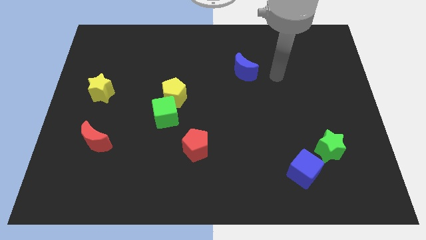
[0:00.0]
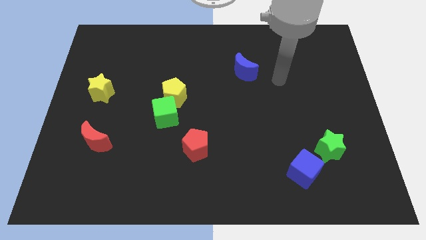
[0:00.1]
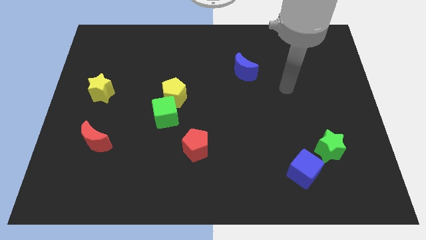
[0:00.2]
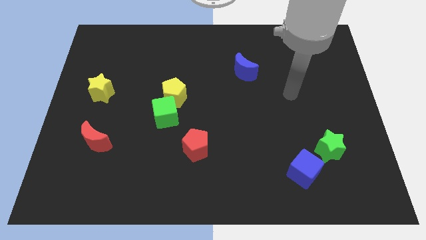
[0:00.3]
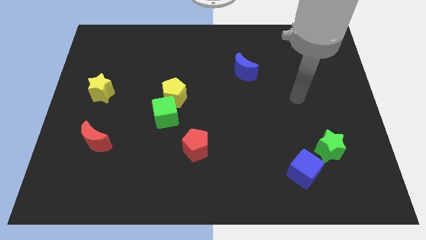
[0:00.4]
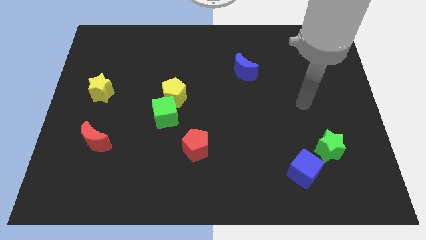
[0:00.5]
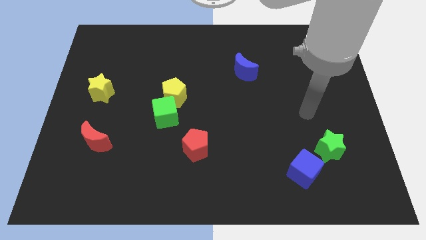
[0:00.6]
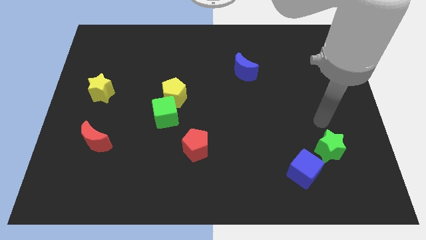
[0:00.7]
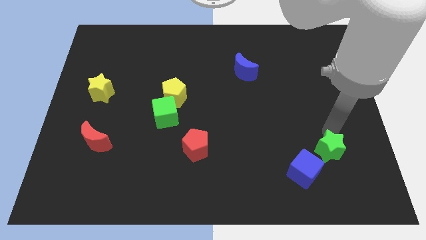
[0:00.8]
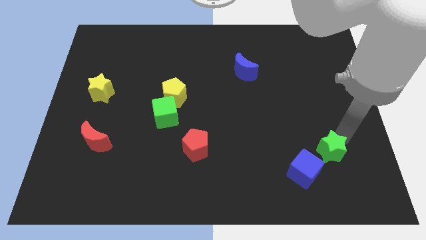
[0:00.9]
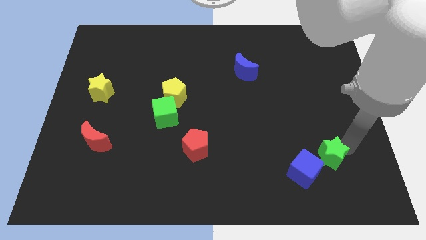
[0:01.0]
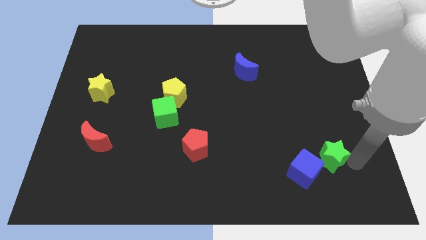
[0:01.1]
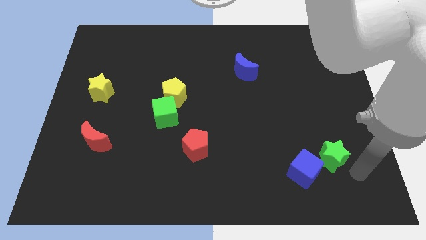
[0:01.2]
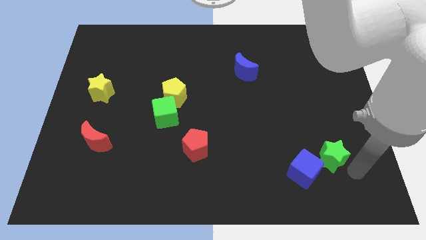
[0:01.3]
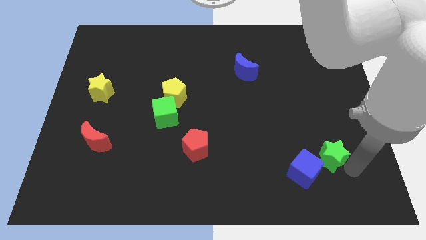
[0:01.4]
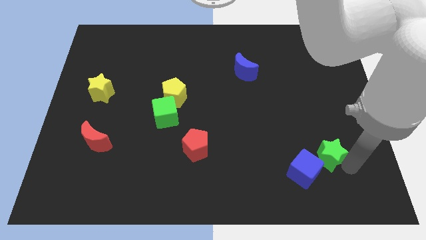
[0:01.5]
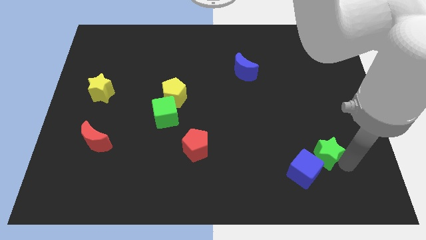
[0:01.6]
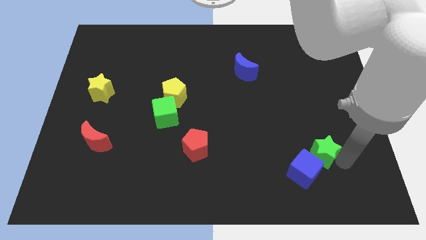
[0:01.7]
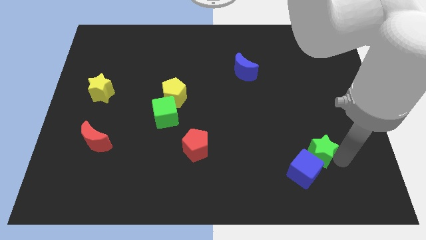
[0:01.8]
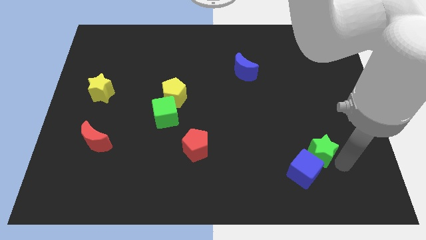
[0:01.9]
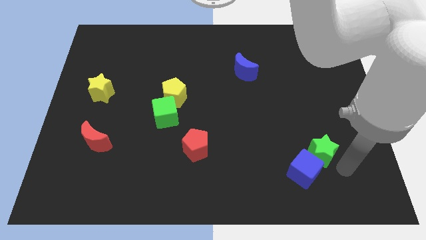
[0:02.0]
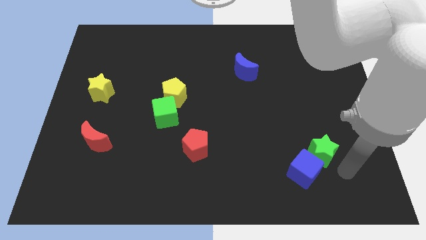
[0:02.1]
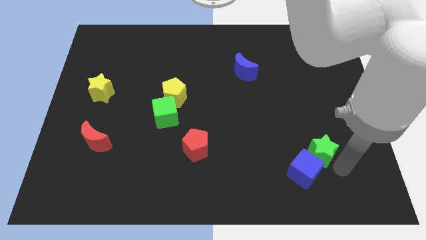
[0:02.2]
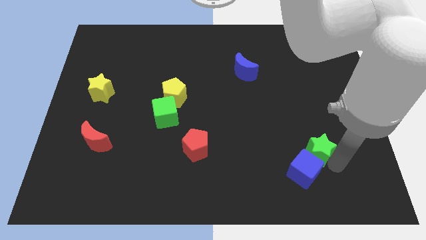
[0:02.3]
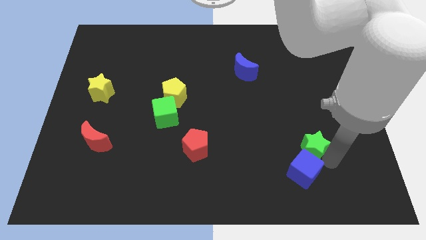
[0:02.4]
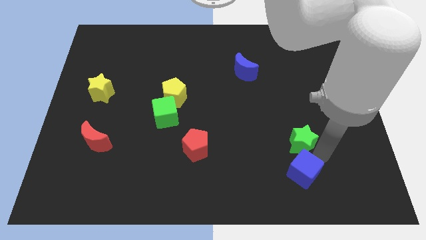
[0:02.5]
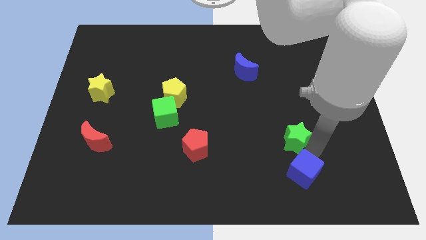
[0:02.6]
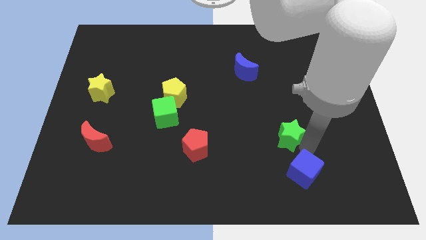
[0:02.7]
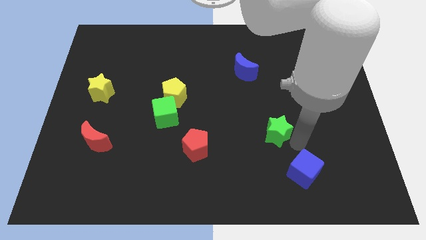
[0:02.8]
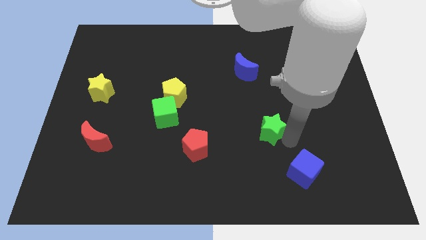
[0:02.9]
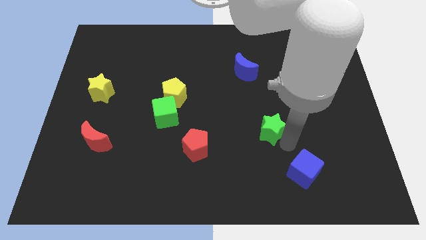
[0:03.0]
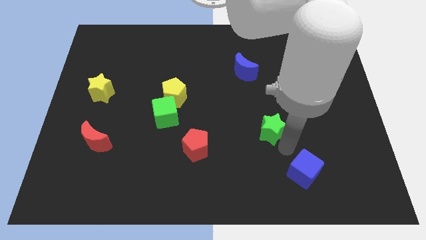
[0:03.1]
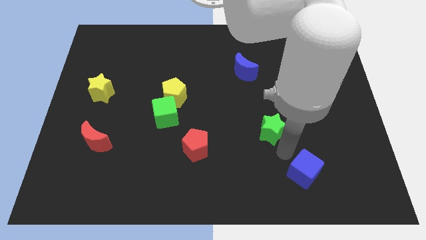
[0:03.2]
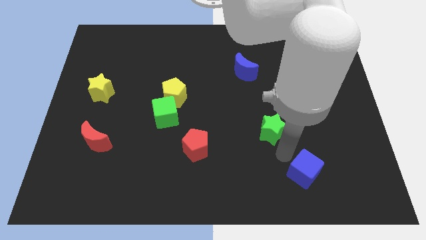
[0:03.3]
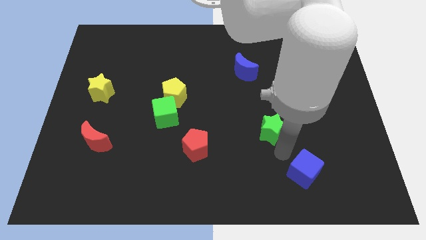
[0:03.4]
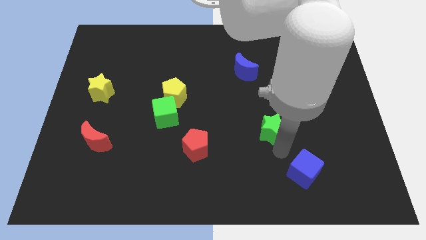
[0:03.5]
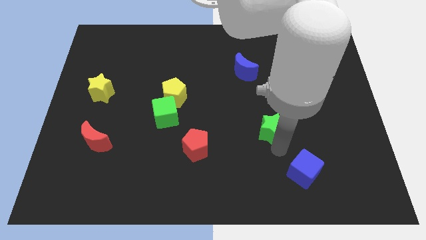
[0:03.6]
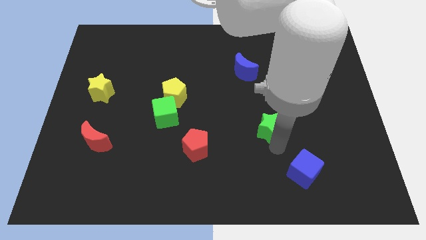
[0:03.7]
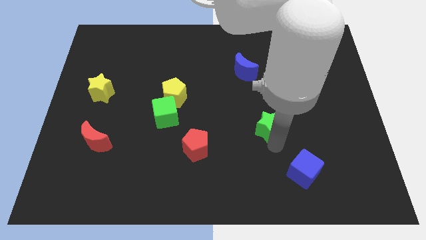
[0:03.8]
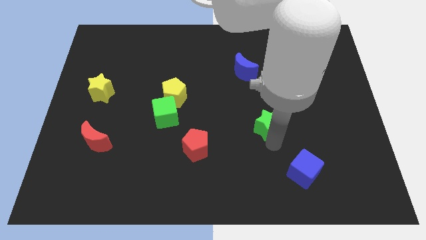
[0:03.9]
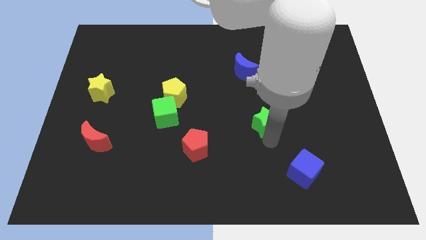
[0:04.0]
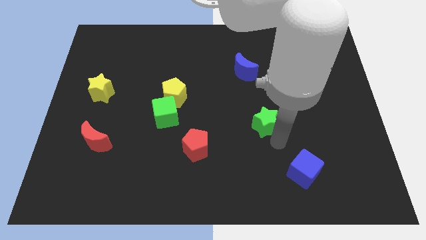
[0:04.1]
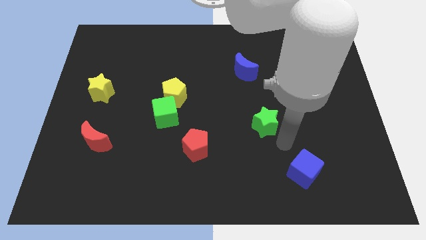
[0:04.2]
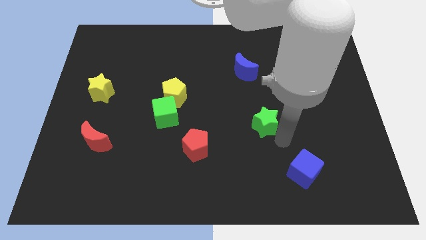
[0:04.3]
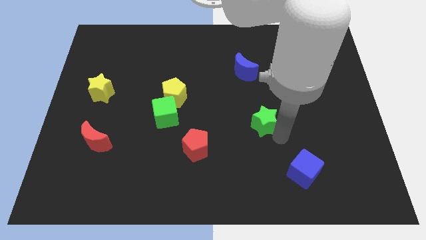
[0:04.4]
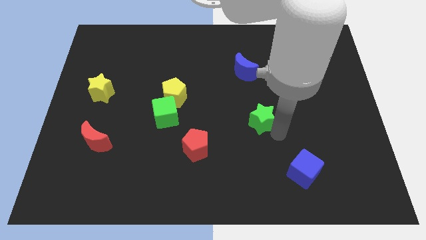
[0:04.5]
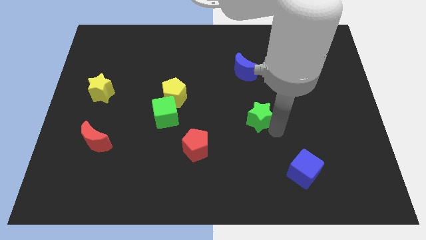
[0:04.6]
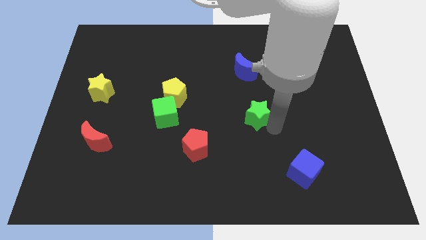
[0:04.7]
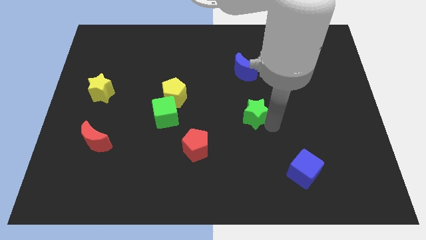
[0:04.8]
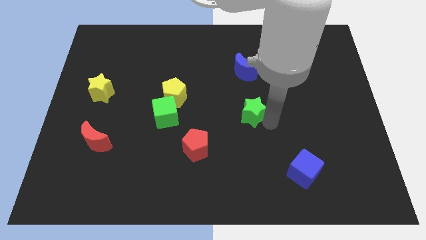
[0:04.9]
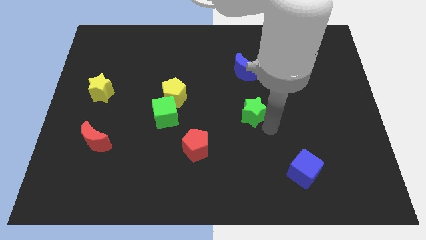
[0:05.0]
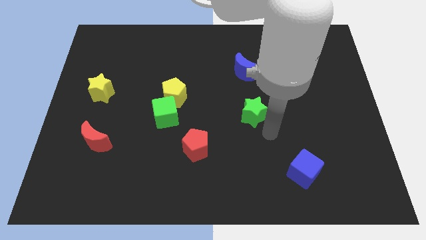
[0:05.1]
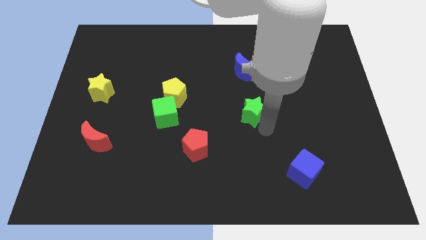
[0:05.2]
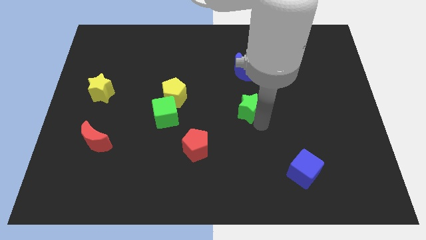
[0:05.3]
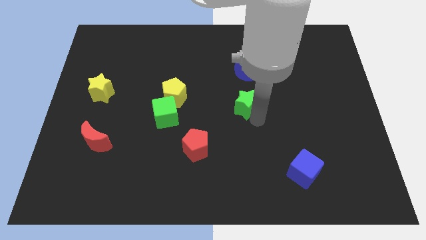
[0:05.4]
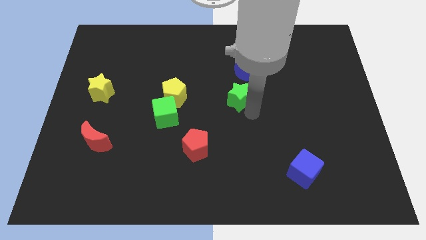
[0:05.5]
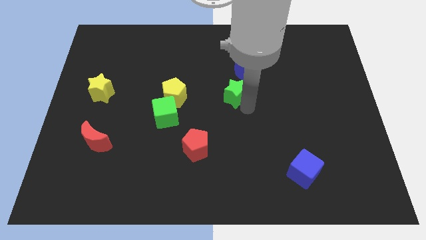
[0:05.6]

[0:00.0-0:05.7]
push the green star to the bottom left of the blue moon

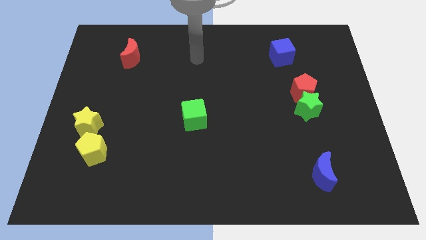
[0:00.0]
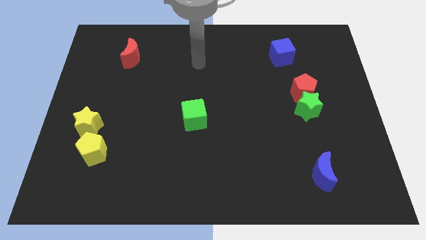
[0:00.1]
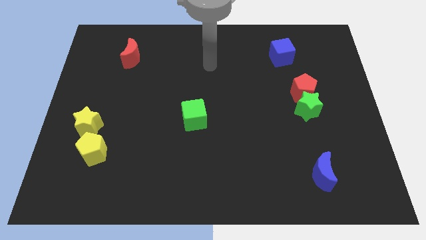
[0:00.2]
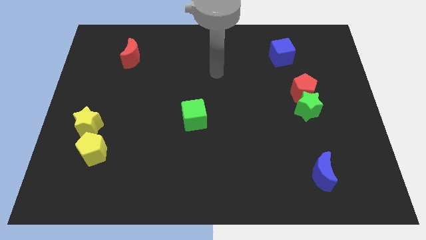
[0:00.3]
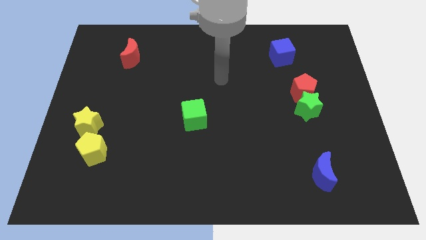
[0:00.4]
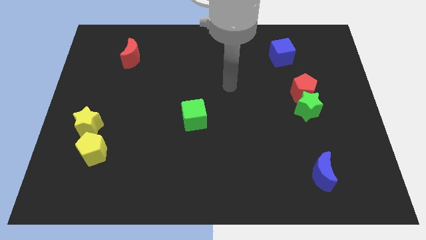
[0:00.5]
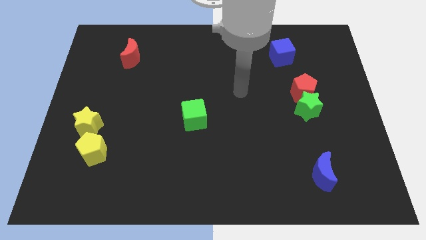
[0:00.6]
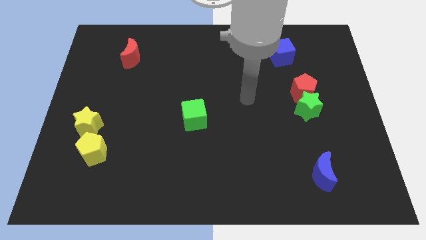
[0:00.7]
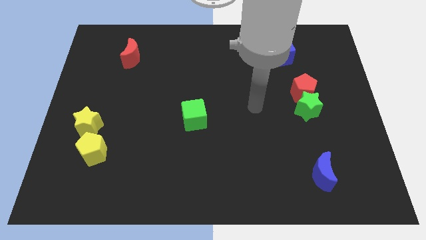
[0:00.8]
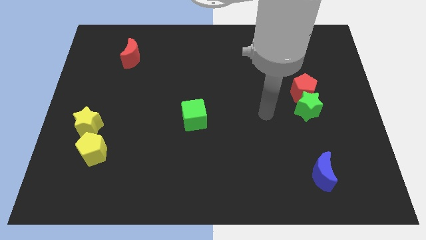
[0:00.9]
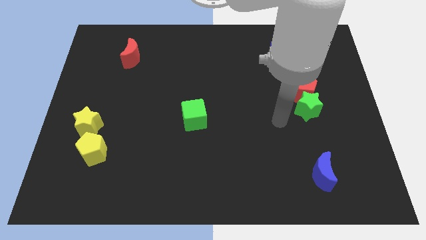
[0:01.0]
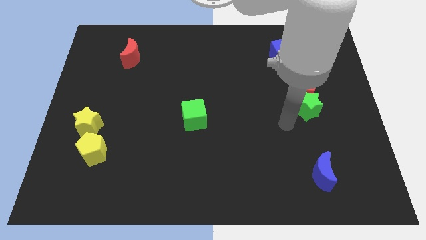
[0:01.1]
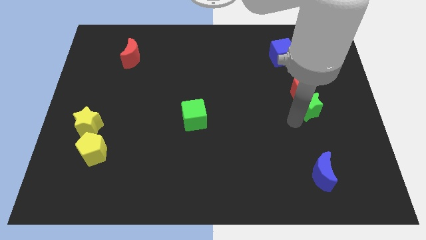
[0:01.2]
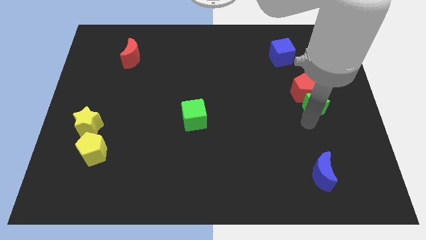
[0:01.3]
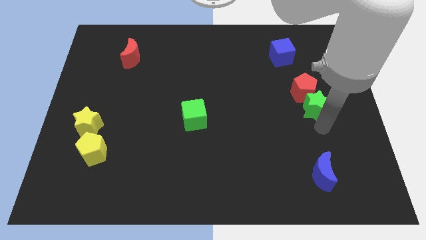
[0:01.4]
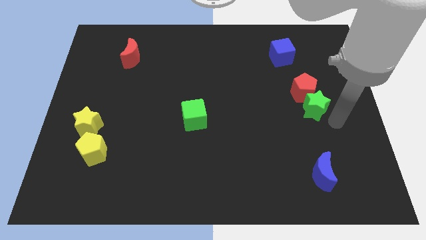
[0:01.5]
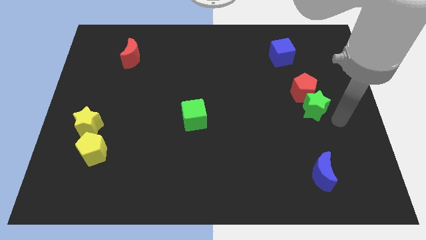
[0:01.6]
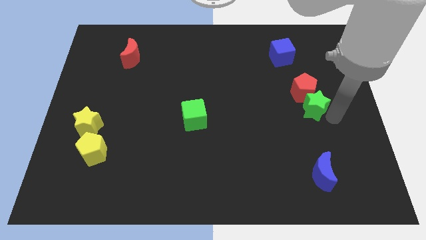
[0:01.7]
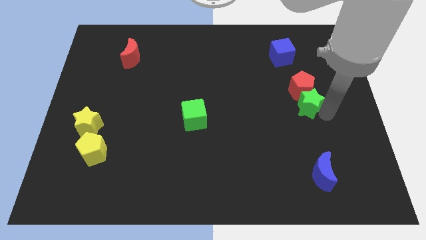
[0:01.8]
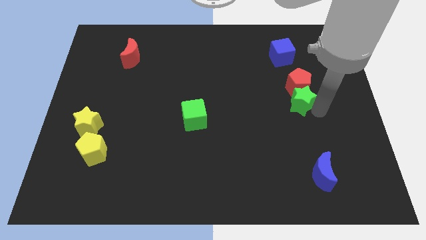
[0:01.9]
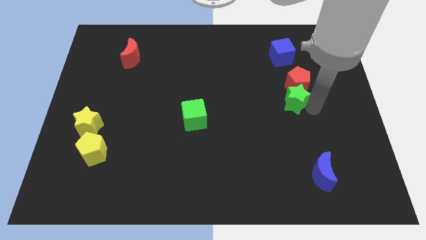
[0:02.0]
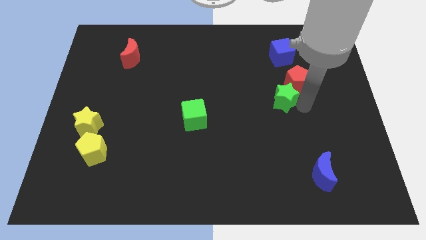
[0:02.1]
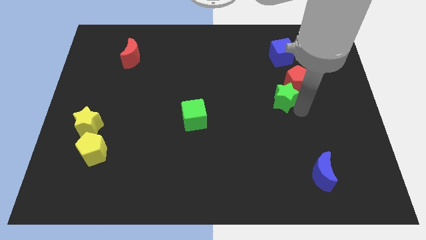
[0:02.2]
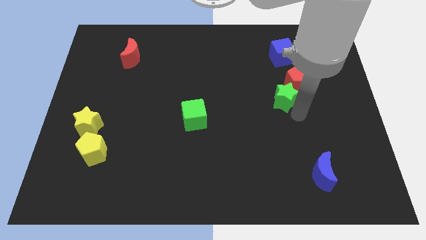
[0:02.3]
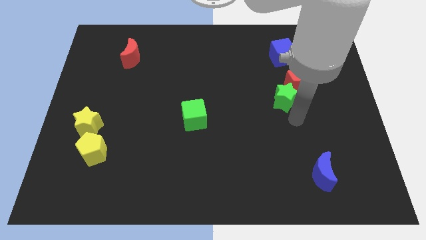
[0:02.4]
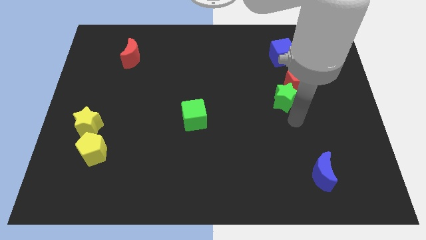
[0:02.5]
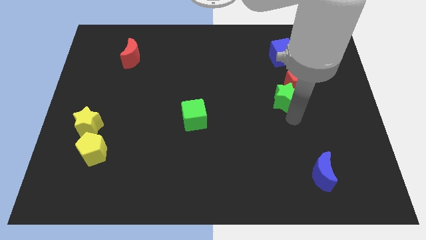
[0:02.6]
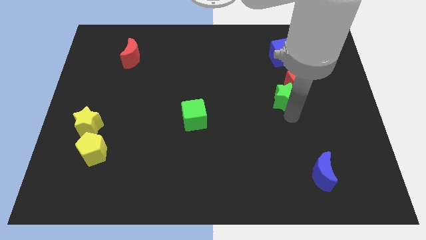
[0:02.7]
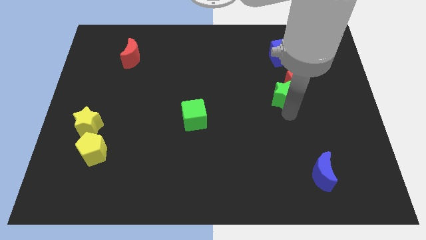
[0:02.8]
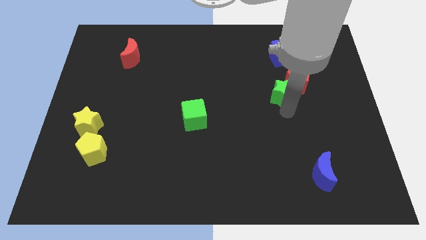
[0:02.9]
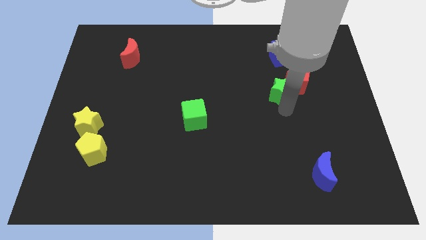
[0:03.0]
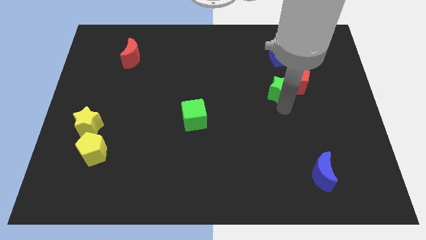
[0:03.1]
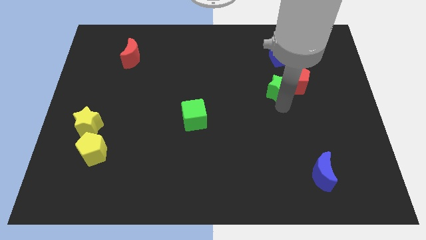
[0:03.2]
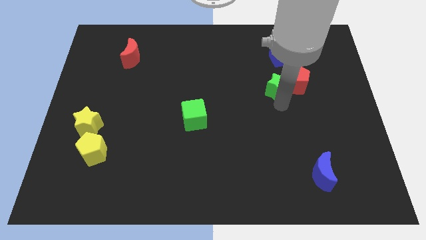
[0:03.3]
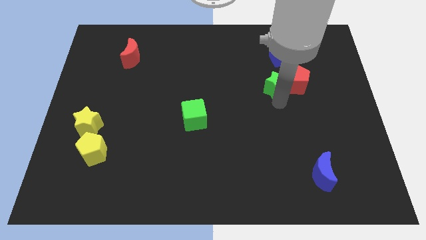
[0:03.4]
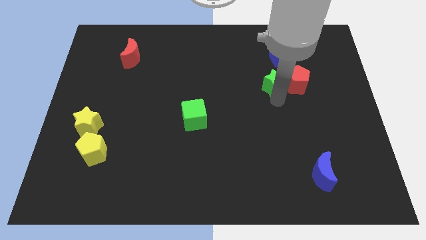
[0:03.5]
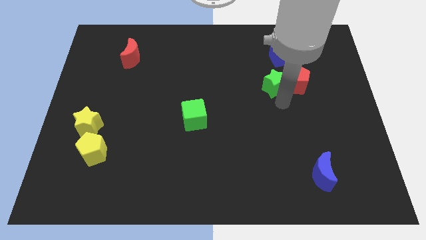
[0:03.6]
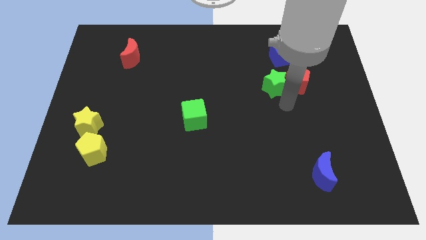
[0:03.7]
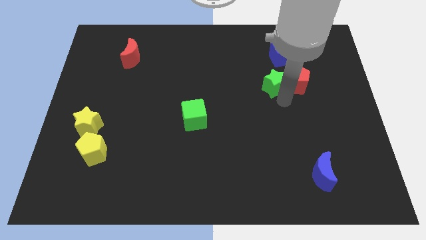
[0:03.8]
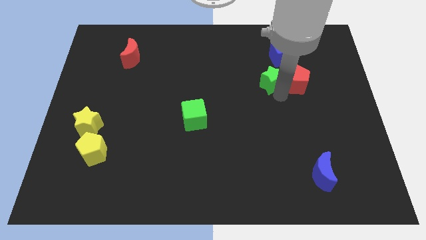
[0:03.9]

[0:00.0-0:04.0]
put the green star diagonally down and to the left of the blue cube
